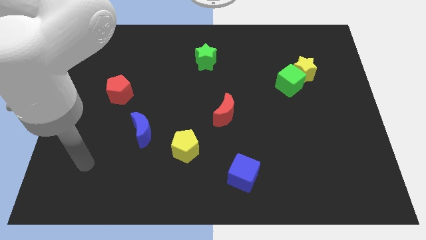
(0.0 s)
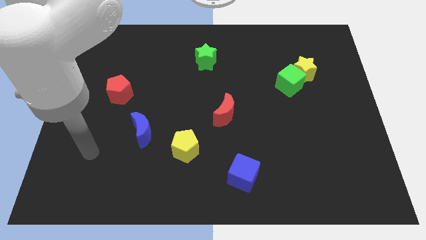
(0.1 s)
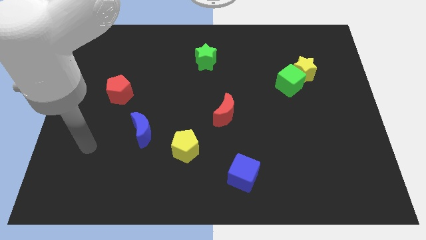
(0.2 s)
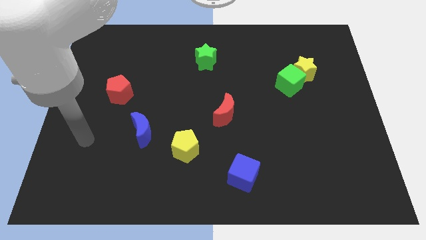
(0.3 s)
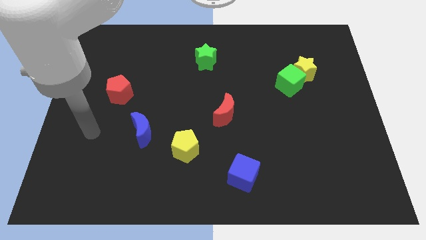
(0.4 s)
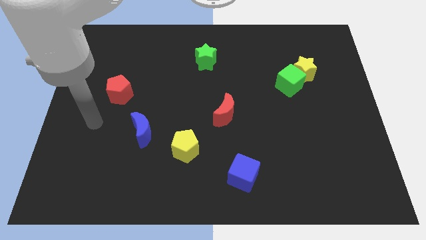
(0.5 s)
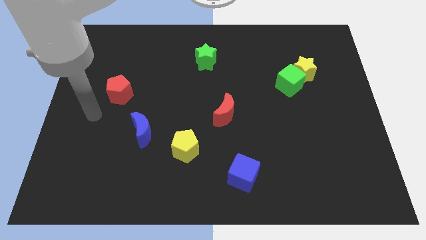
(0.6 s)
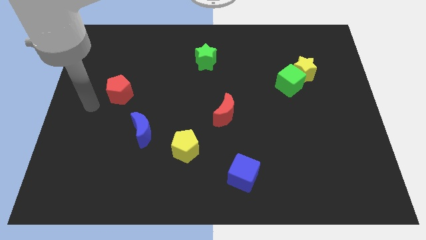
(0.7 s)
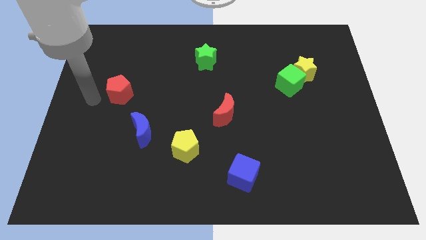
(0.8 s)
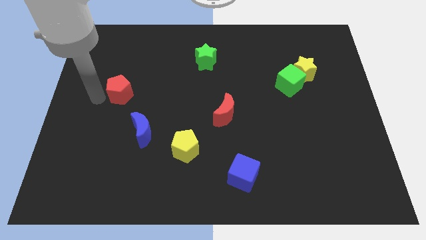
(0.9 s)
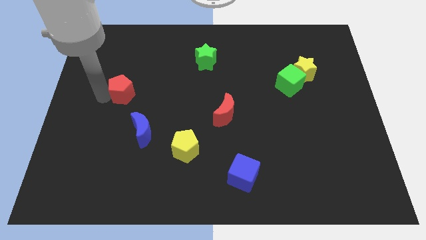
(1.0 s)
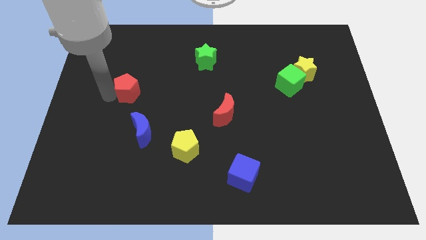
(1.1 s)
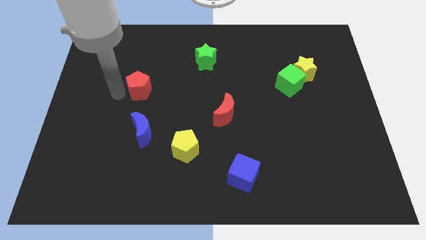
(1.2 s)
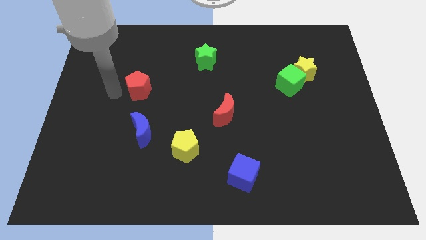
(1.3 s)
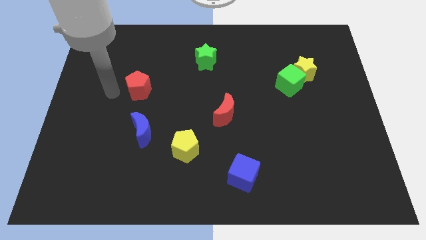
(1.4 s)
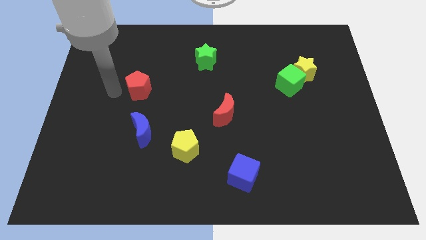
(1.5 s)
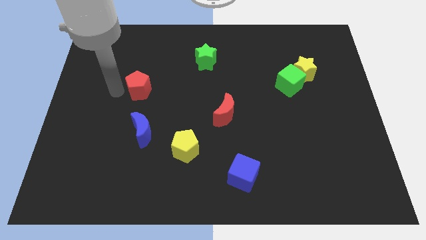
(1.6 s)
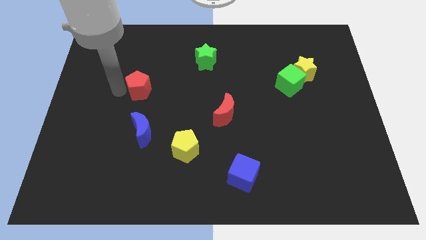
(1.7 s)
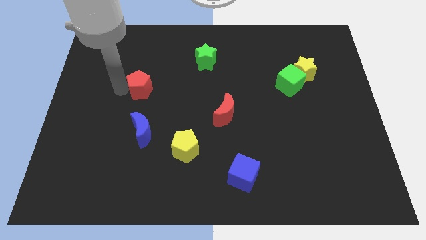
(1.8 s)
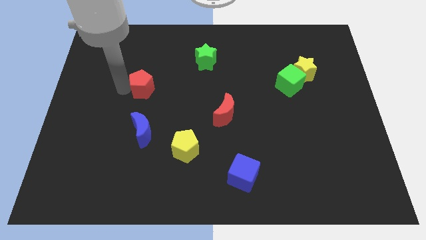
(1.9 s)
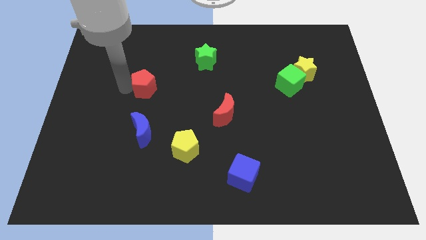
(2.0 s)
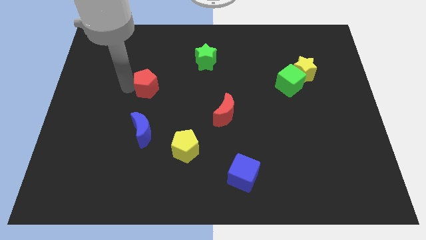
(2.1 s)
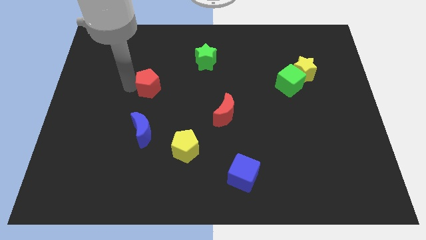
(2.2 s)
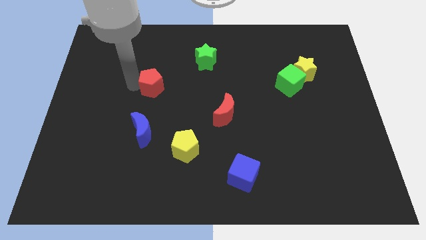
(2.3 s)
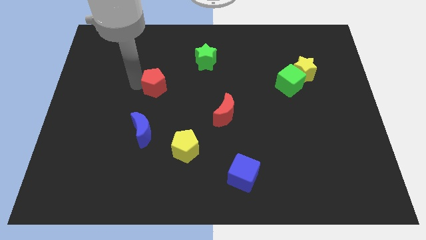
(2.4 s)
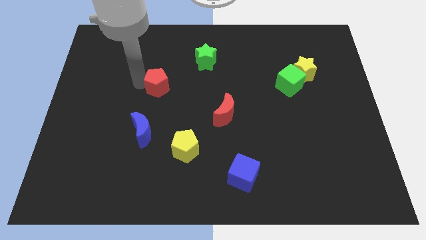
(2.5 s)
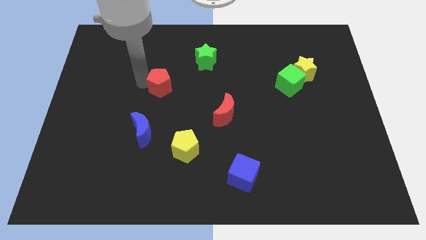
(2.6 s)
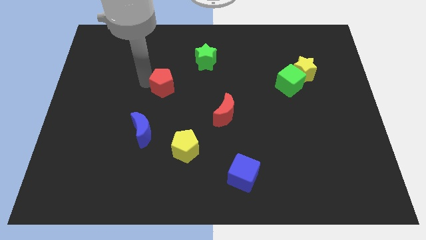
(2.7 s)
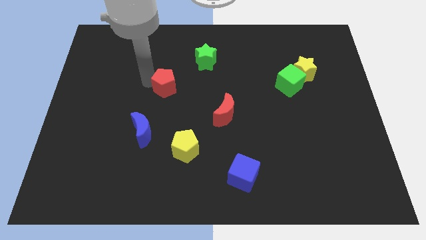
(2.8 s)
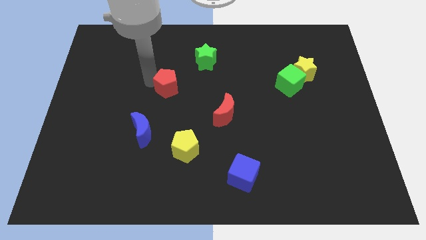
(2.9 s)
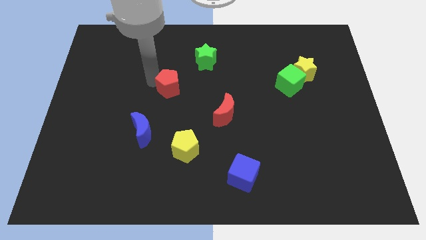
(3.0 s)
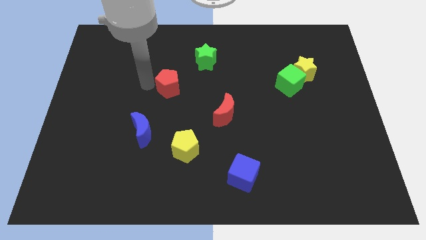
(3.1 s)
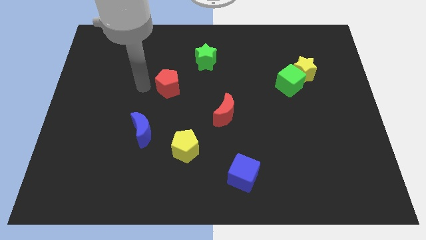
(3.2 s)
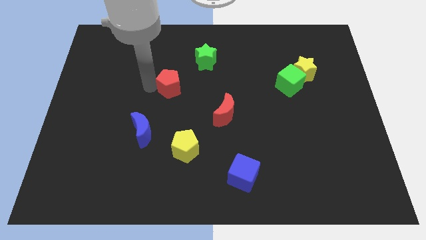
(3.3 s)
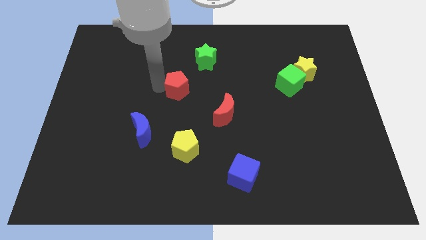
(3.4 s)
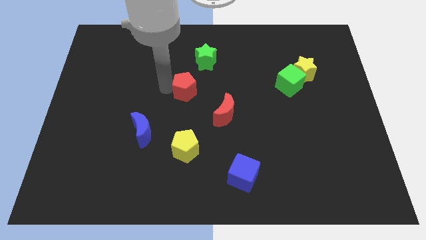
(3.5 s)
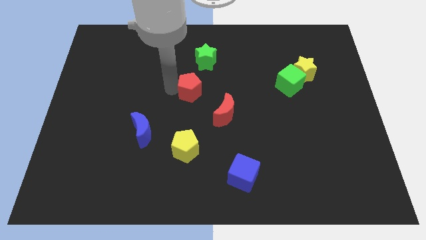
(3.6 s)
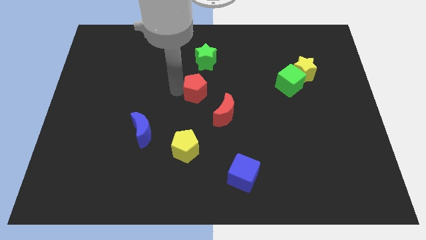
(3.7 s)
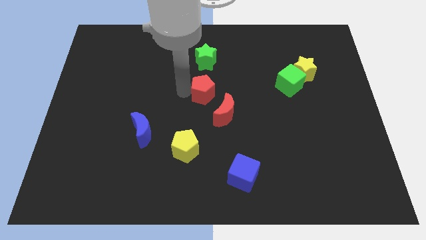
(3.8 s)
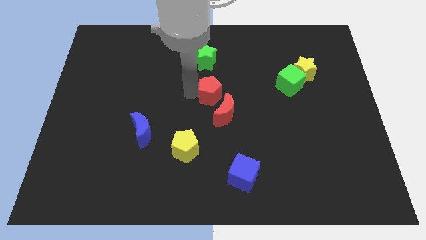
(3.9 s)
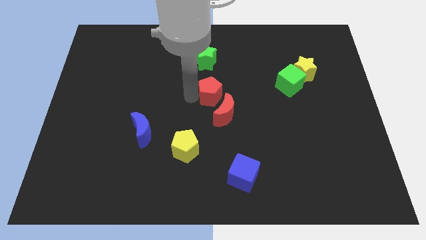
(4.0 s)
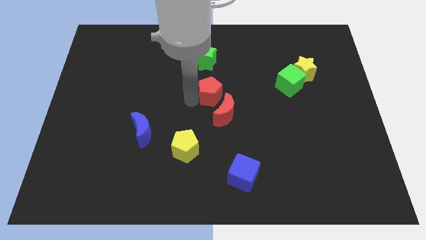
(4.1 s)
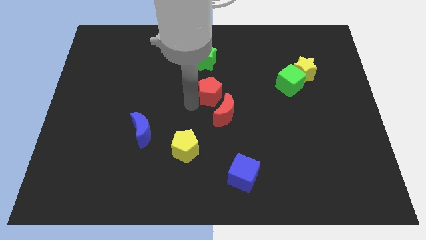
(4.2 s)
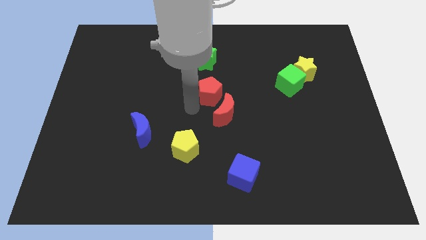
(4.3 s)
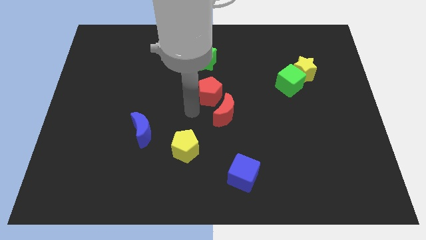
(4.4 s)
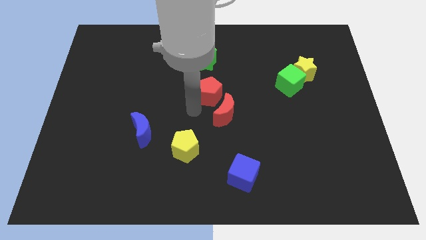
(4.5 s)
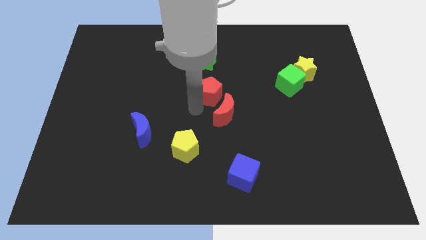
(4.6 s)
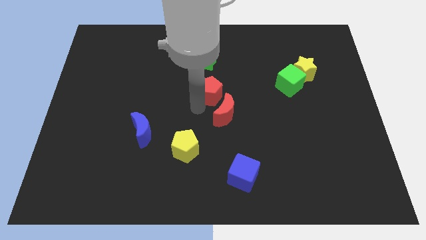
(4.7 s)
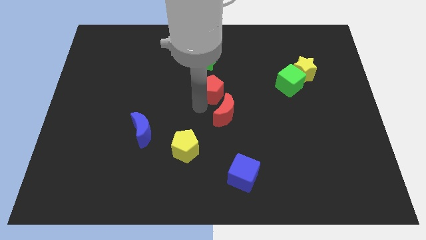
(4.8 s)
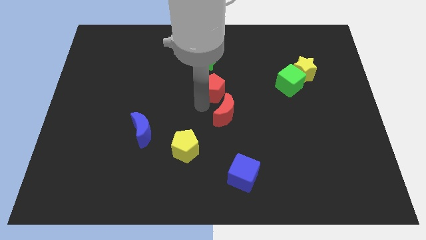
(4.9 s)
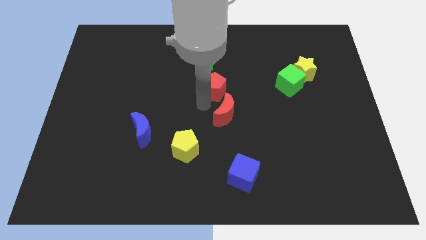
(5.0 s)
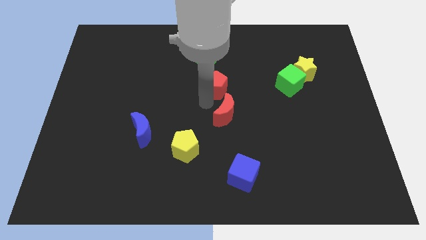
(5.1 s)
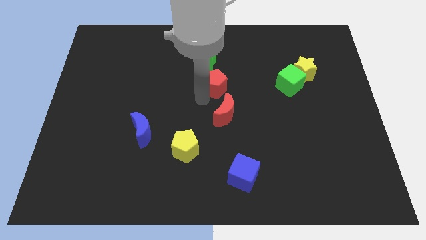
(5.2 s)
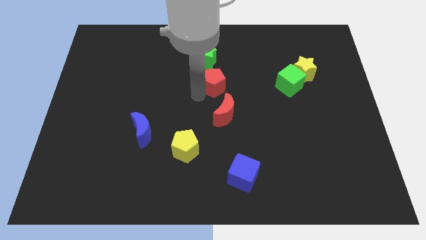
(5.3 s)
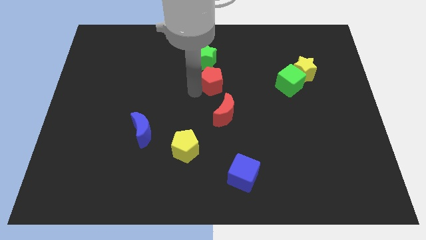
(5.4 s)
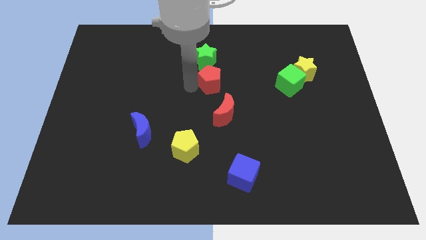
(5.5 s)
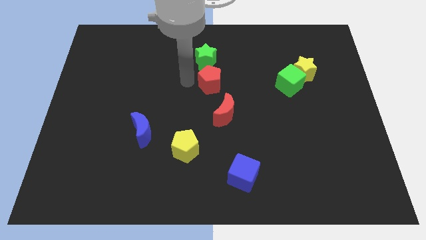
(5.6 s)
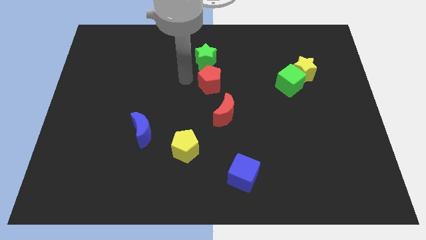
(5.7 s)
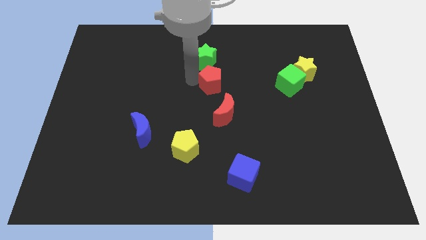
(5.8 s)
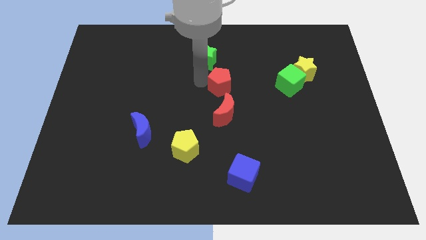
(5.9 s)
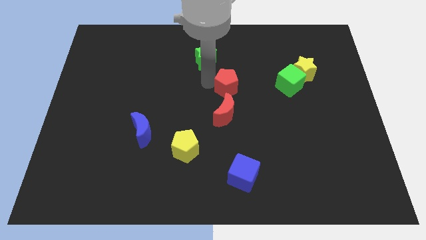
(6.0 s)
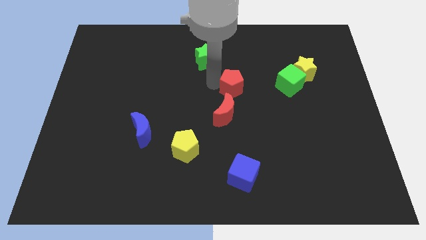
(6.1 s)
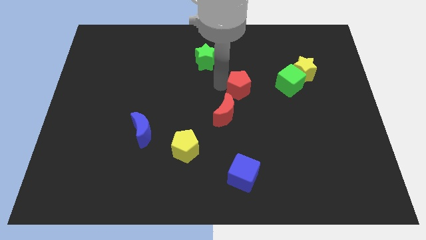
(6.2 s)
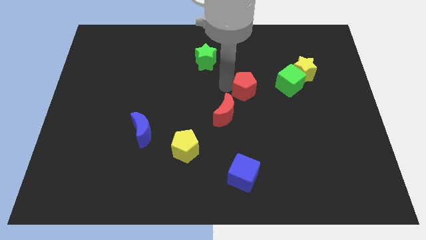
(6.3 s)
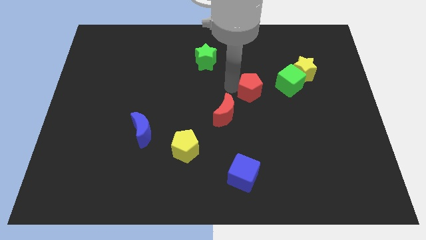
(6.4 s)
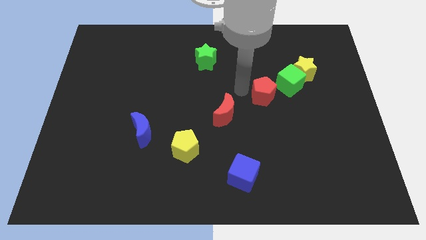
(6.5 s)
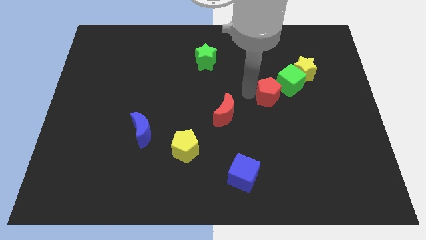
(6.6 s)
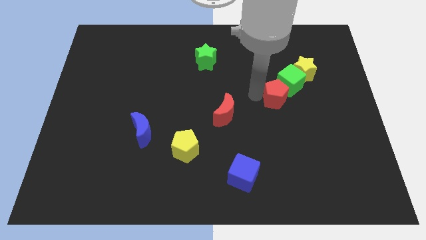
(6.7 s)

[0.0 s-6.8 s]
push the red pentagon towards the green cube
